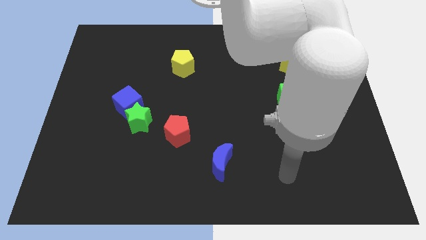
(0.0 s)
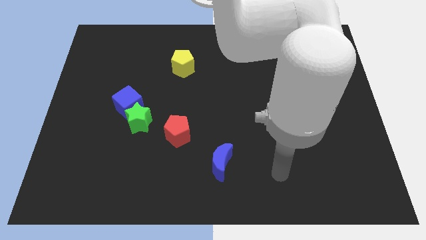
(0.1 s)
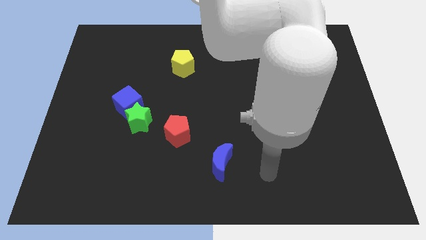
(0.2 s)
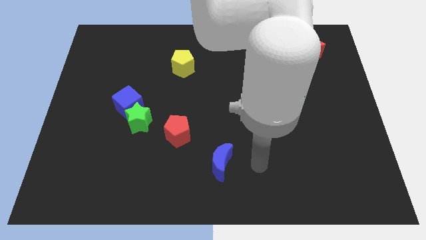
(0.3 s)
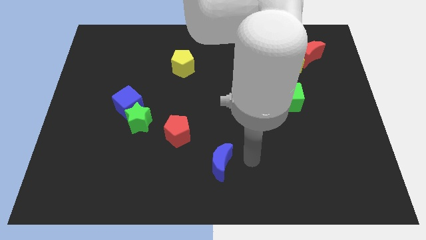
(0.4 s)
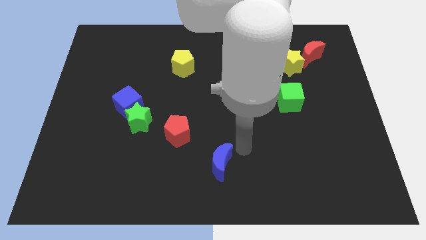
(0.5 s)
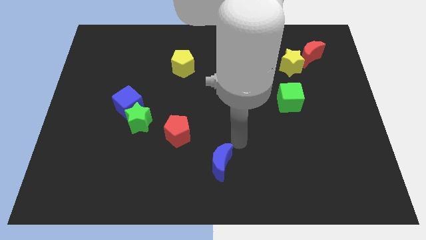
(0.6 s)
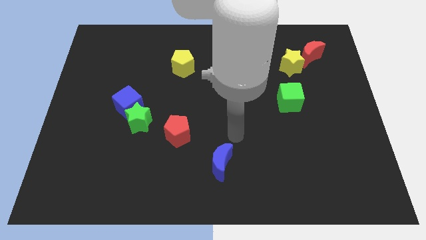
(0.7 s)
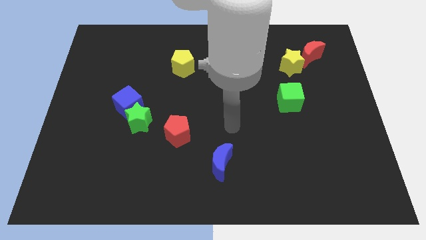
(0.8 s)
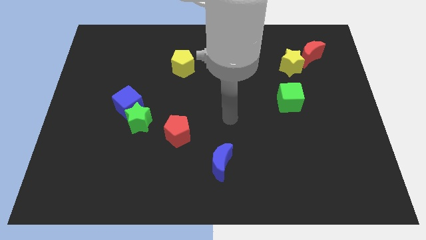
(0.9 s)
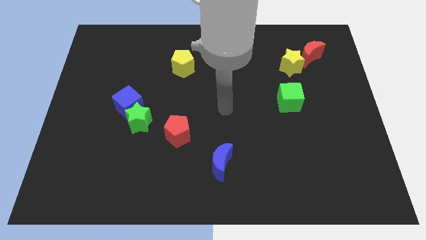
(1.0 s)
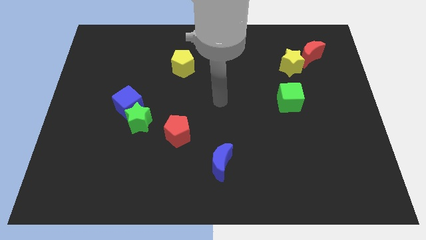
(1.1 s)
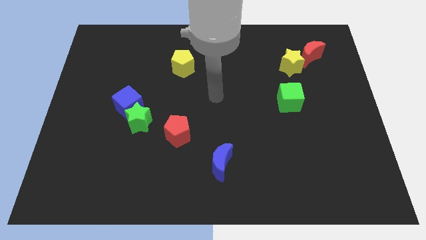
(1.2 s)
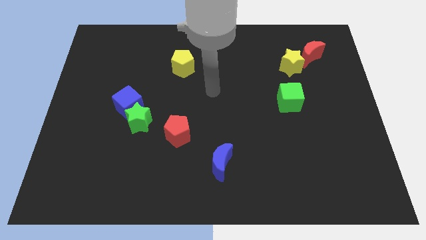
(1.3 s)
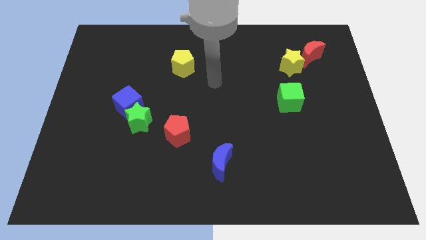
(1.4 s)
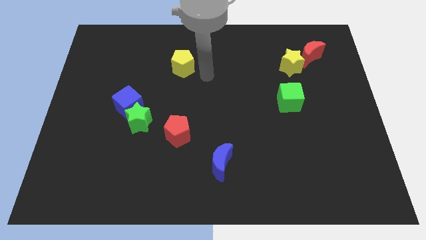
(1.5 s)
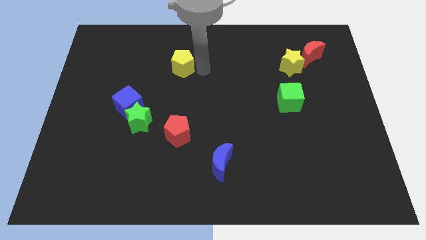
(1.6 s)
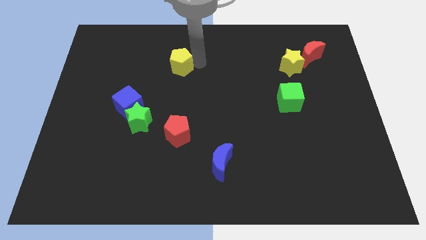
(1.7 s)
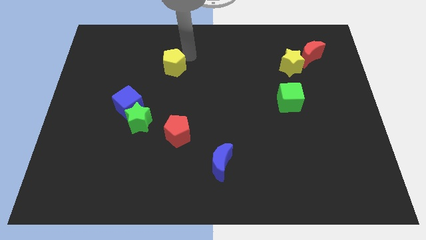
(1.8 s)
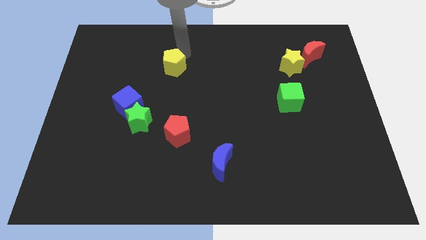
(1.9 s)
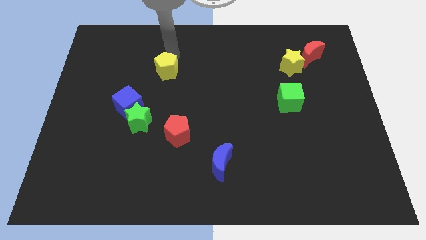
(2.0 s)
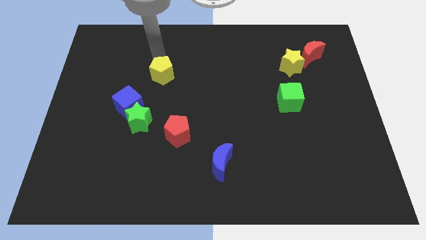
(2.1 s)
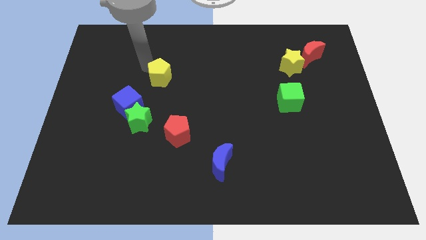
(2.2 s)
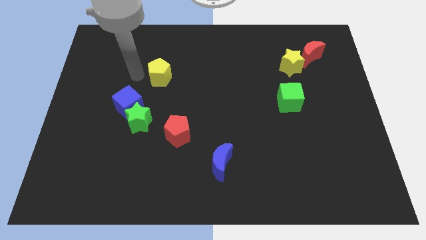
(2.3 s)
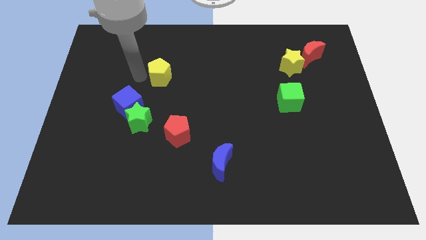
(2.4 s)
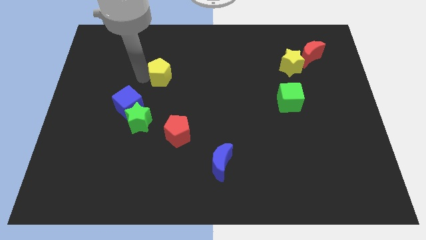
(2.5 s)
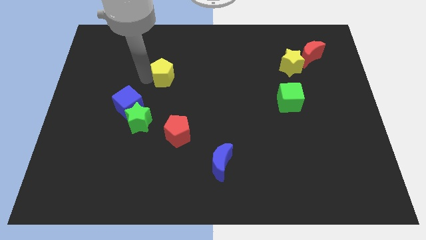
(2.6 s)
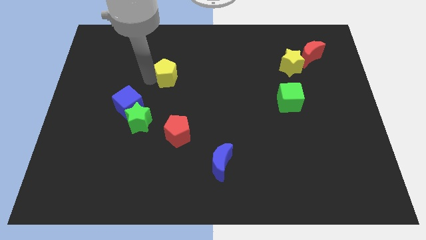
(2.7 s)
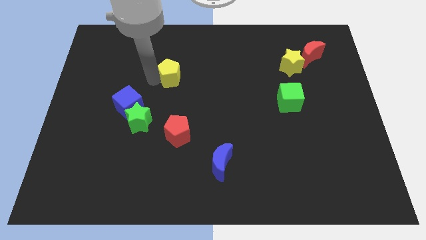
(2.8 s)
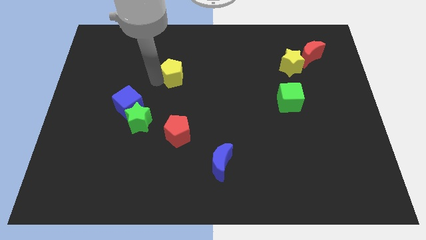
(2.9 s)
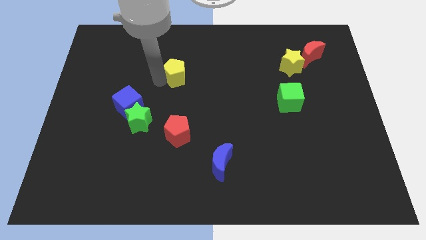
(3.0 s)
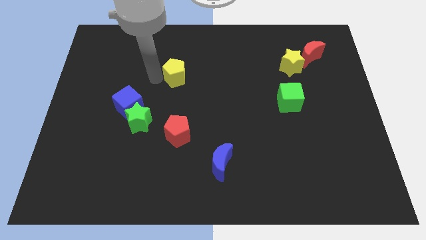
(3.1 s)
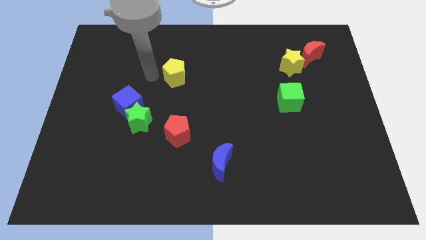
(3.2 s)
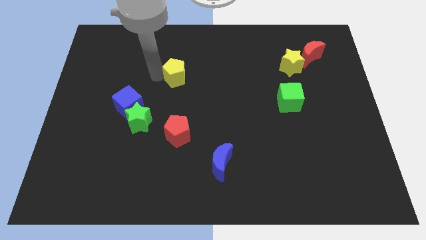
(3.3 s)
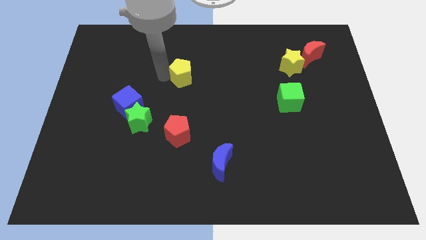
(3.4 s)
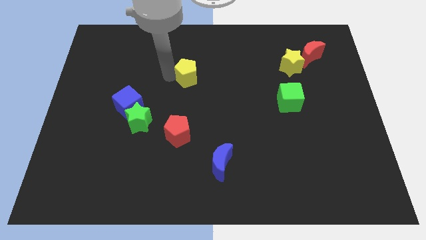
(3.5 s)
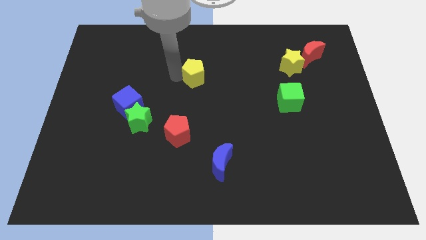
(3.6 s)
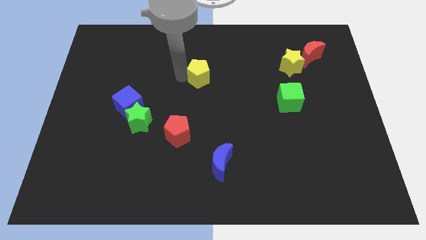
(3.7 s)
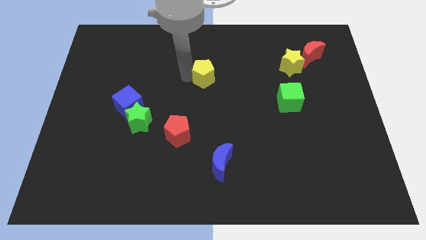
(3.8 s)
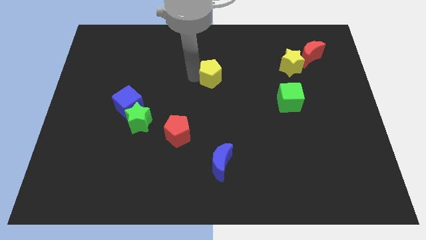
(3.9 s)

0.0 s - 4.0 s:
slightly slide the yellow pentagon to the right

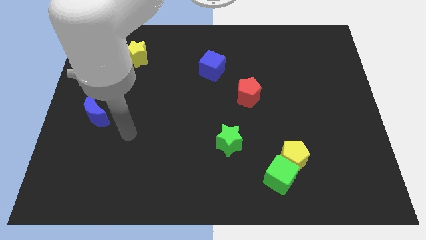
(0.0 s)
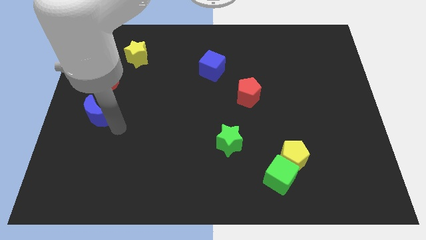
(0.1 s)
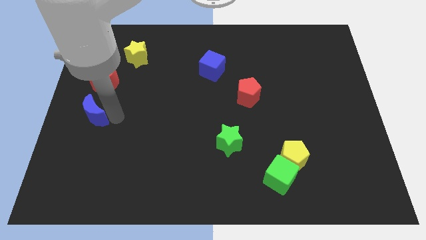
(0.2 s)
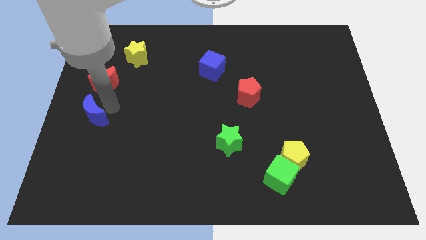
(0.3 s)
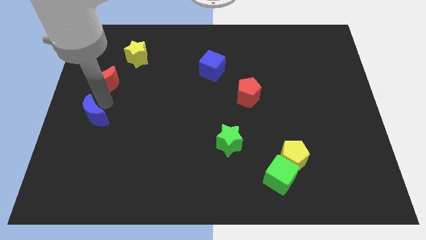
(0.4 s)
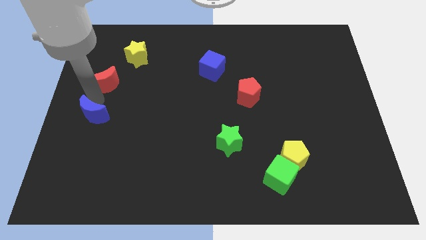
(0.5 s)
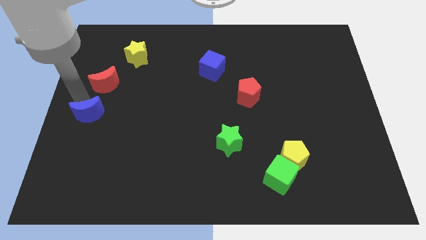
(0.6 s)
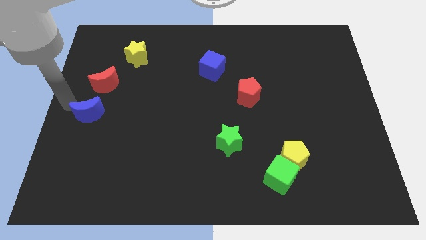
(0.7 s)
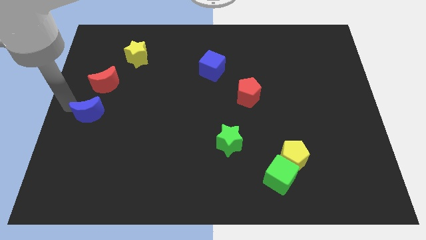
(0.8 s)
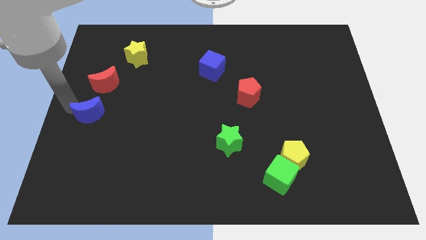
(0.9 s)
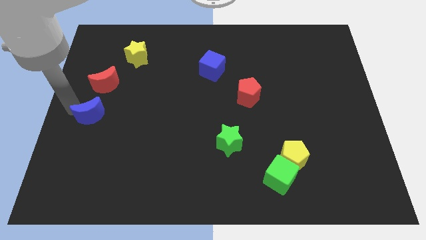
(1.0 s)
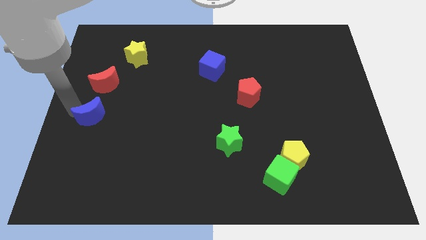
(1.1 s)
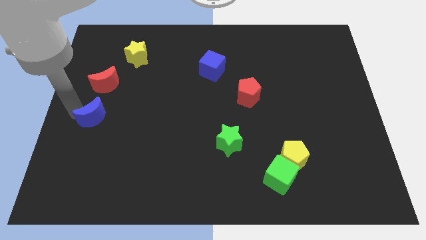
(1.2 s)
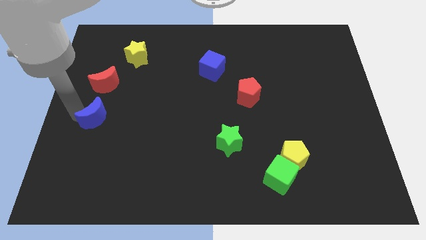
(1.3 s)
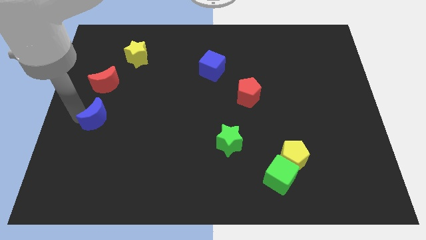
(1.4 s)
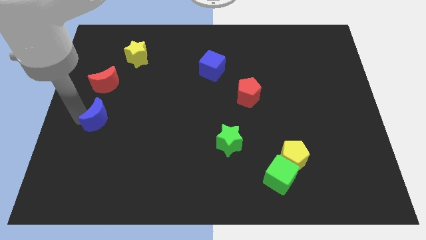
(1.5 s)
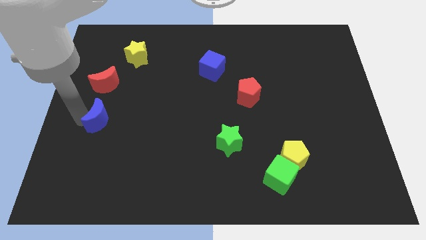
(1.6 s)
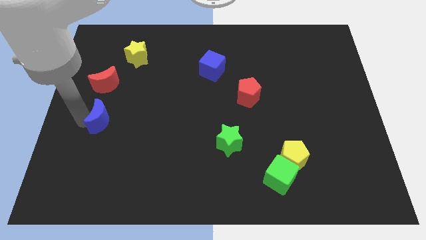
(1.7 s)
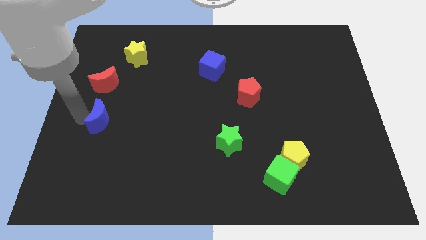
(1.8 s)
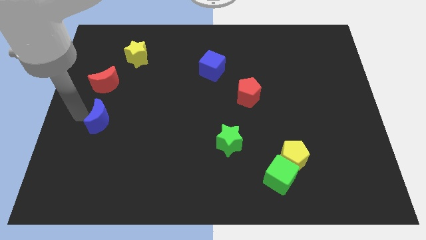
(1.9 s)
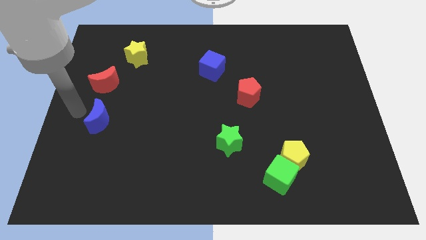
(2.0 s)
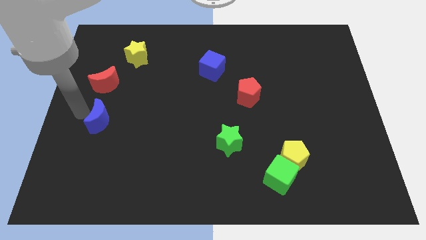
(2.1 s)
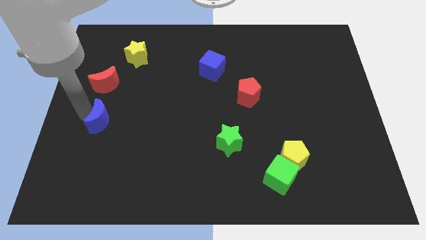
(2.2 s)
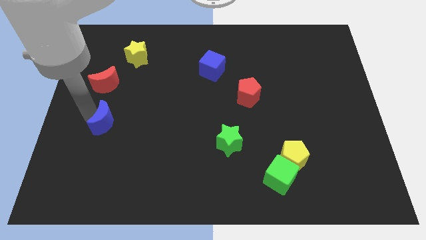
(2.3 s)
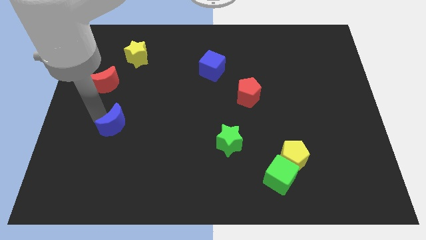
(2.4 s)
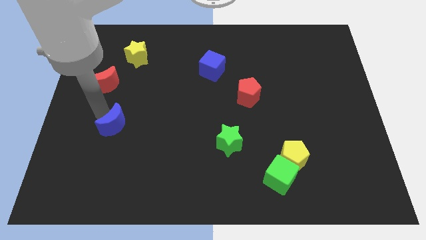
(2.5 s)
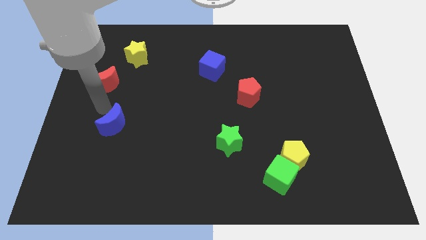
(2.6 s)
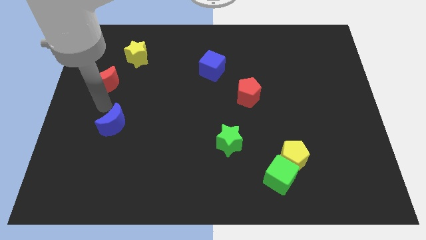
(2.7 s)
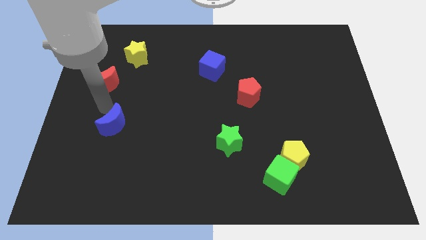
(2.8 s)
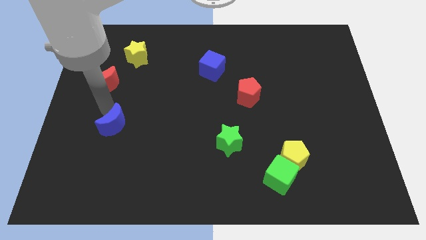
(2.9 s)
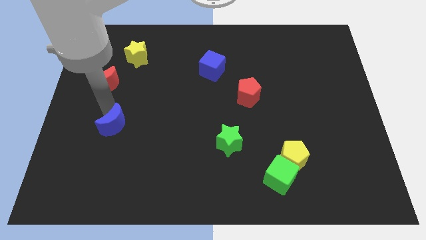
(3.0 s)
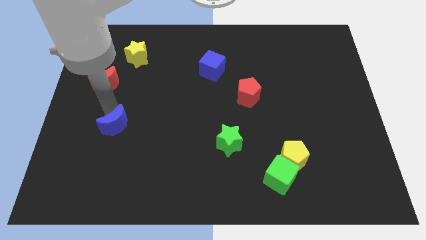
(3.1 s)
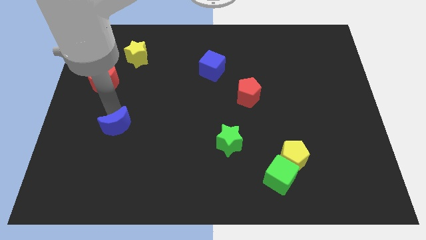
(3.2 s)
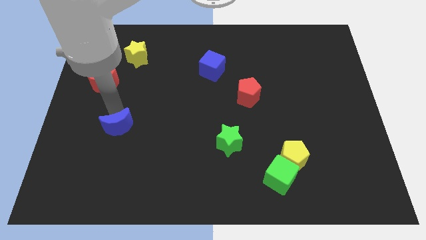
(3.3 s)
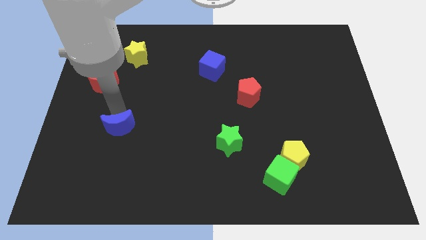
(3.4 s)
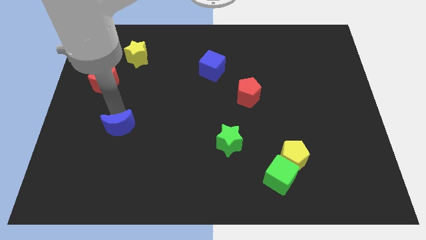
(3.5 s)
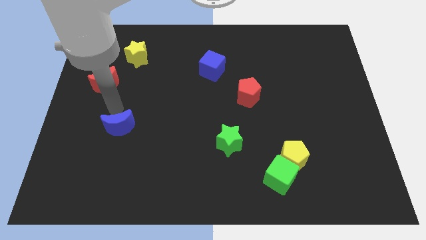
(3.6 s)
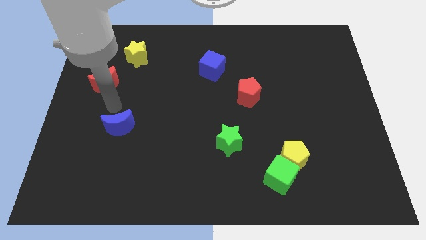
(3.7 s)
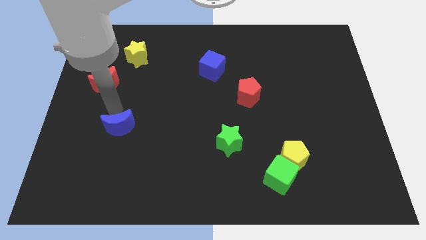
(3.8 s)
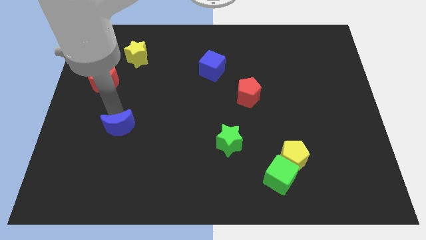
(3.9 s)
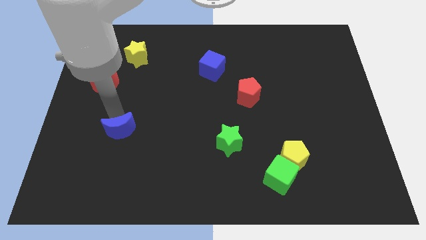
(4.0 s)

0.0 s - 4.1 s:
move the blue moon downwards and then to the right slightly

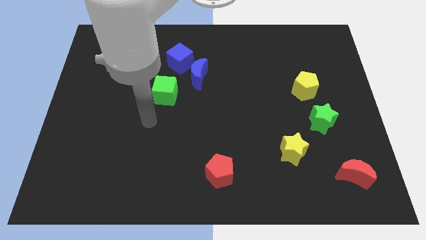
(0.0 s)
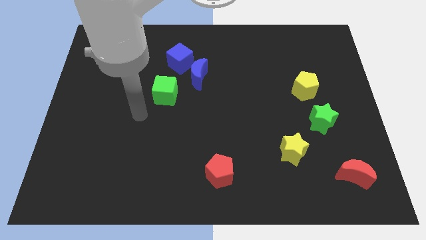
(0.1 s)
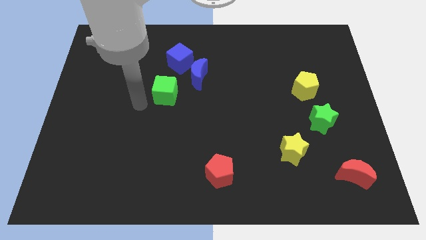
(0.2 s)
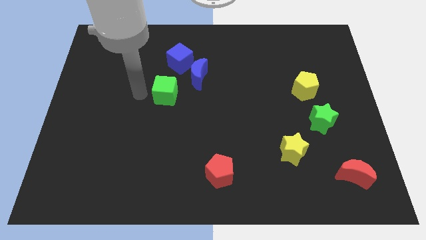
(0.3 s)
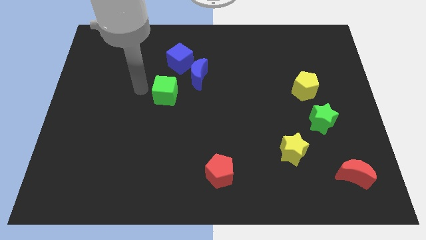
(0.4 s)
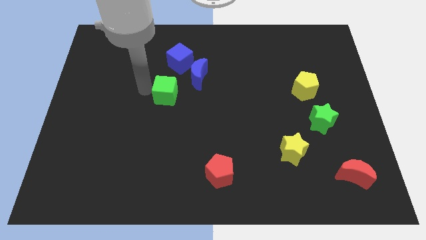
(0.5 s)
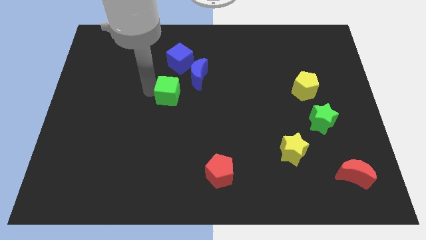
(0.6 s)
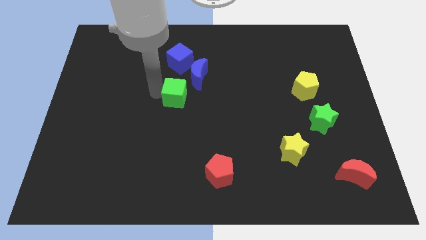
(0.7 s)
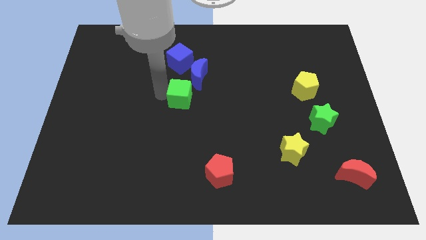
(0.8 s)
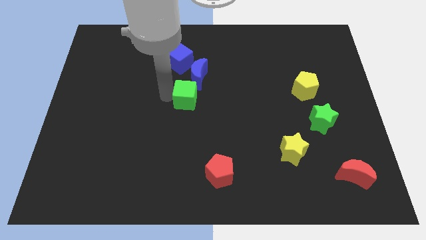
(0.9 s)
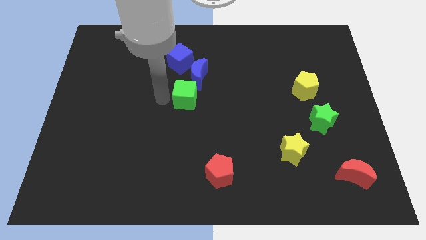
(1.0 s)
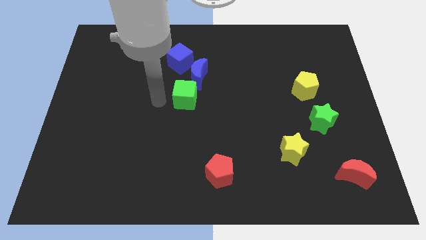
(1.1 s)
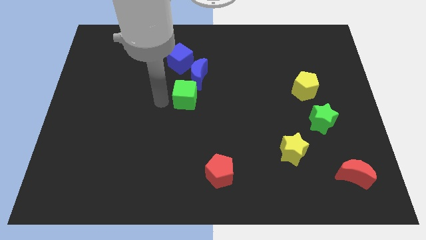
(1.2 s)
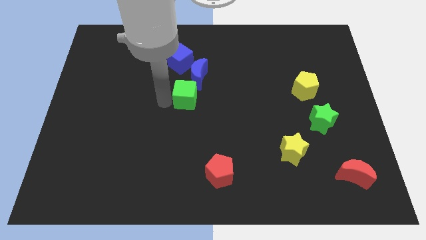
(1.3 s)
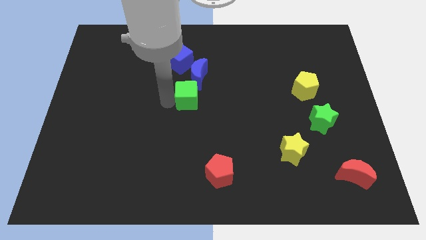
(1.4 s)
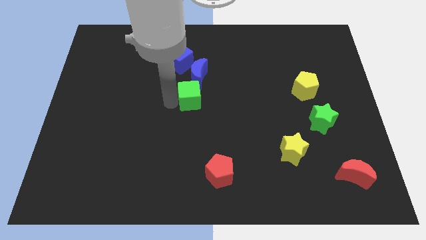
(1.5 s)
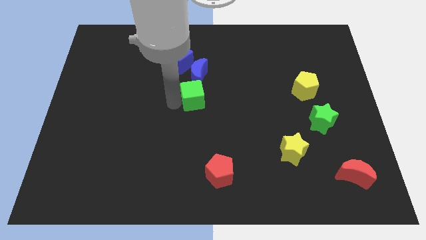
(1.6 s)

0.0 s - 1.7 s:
move the green cube somewhat to the right
